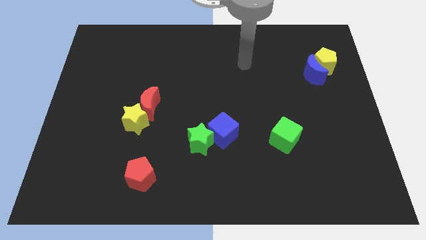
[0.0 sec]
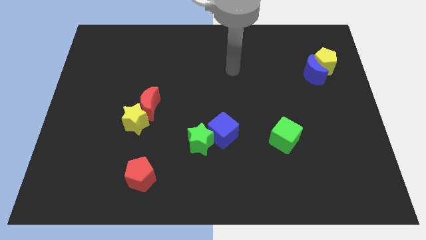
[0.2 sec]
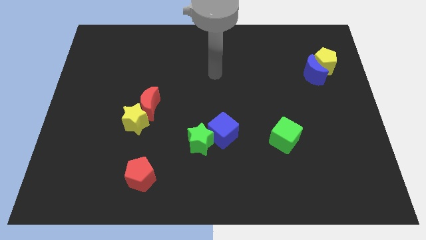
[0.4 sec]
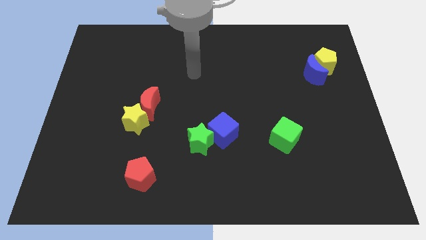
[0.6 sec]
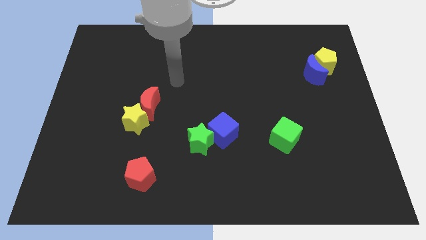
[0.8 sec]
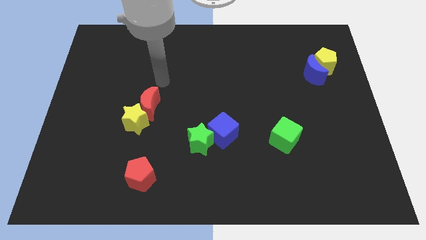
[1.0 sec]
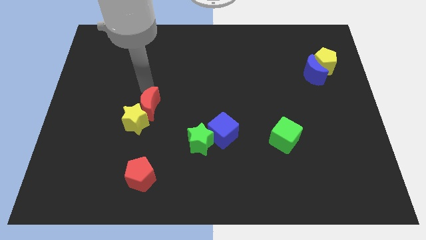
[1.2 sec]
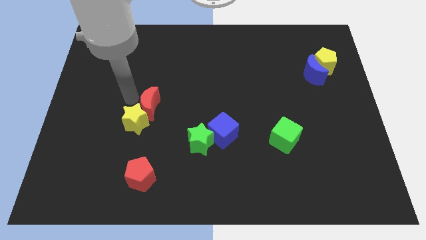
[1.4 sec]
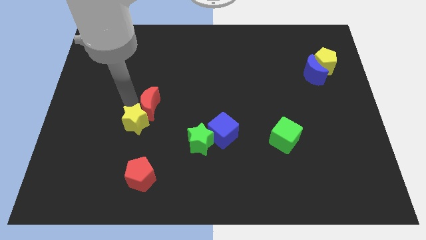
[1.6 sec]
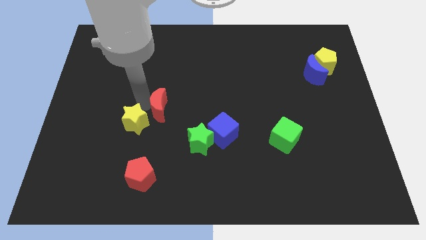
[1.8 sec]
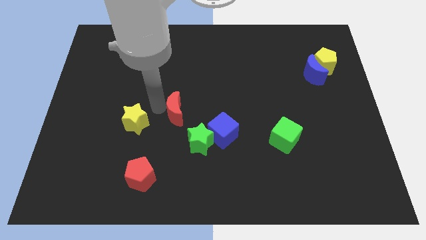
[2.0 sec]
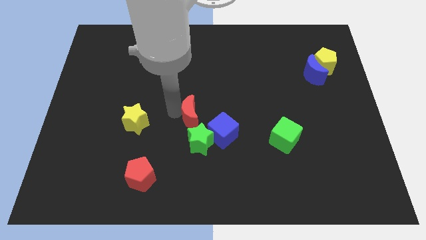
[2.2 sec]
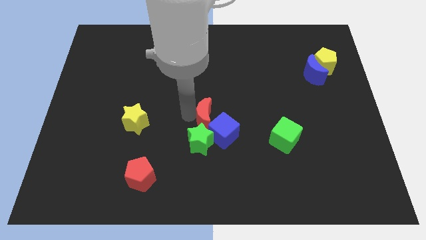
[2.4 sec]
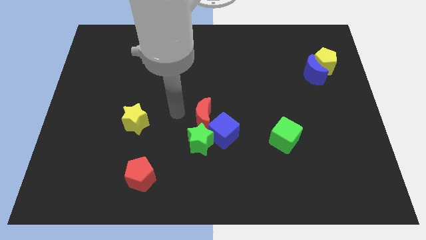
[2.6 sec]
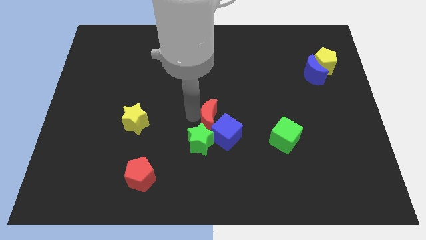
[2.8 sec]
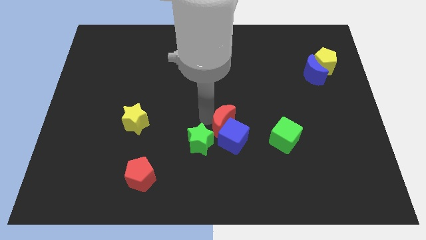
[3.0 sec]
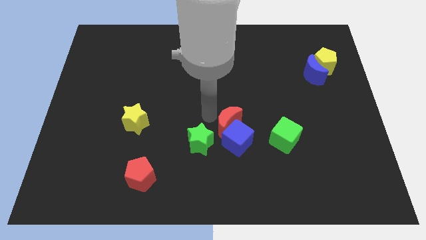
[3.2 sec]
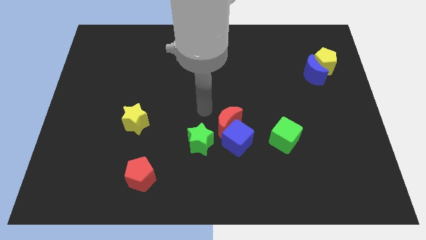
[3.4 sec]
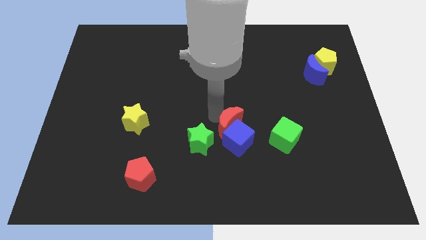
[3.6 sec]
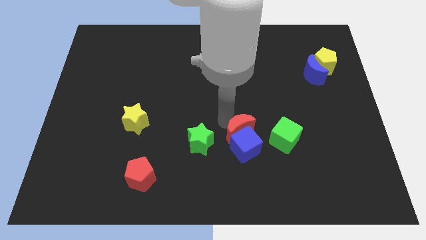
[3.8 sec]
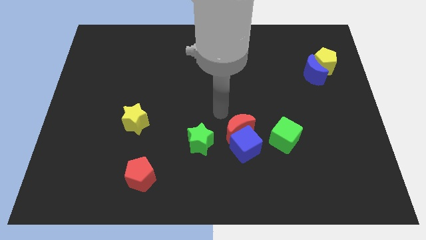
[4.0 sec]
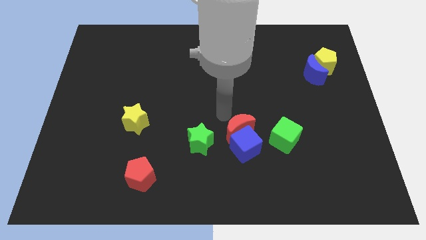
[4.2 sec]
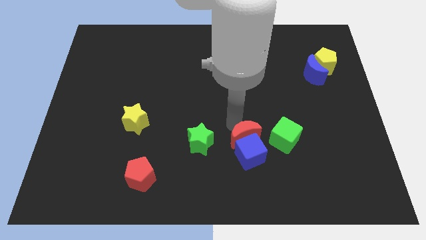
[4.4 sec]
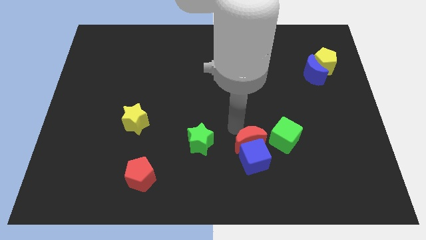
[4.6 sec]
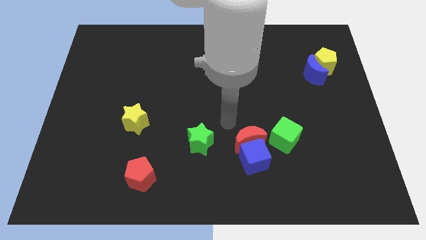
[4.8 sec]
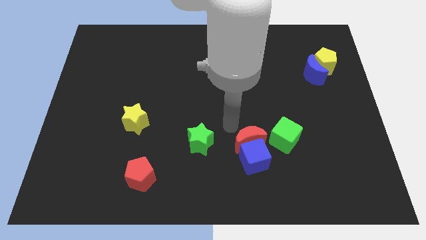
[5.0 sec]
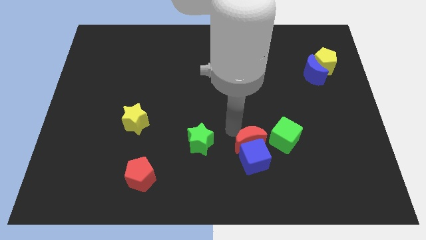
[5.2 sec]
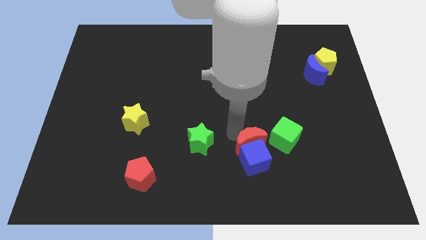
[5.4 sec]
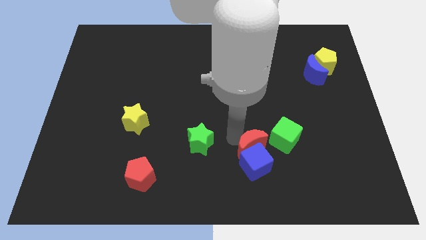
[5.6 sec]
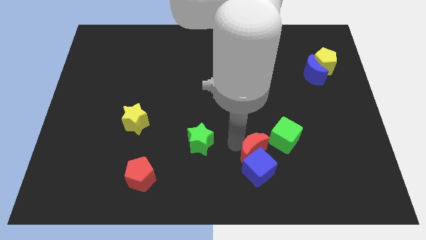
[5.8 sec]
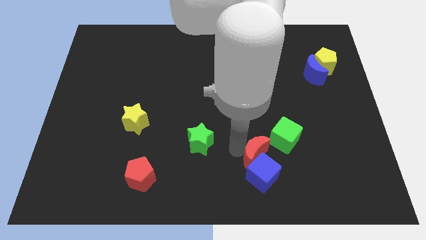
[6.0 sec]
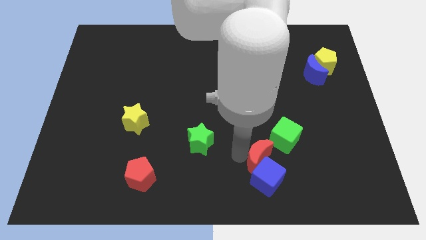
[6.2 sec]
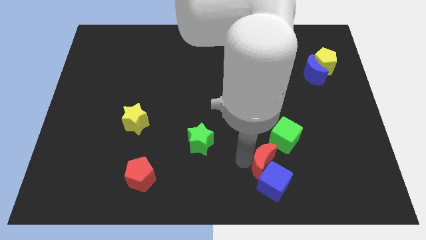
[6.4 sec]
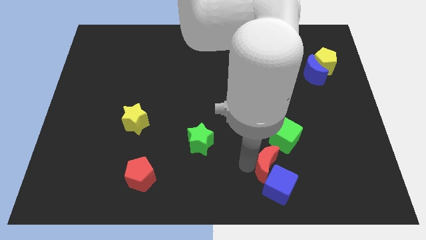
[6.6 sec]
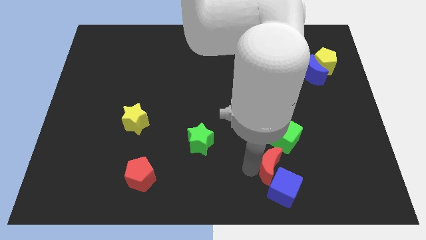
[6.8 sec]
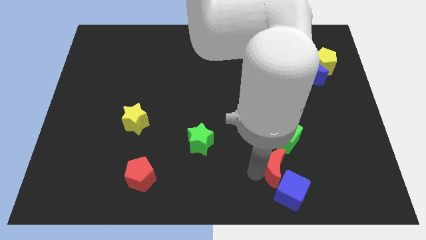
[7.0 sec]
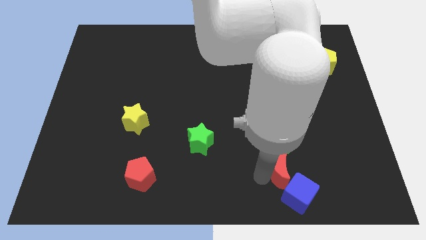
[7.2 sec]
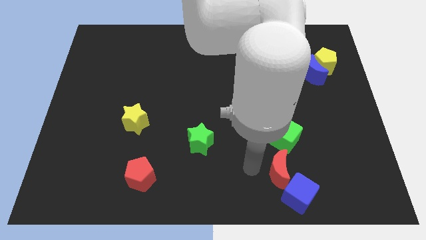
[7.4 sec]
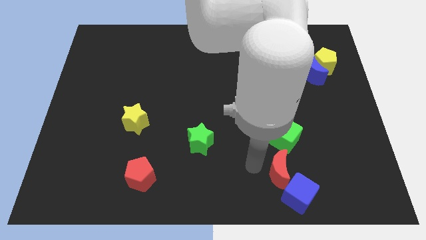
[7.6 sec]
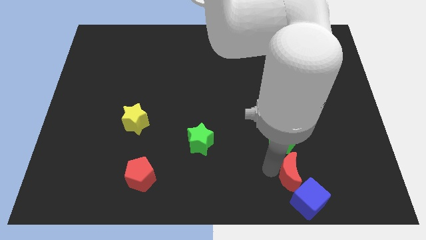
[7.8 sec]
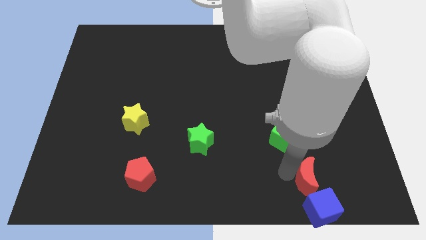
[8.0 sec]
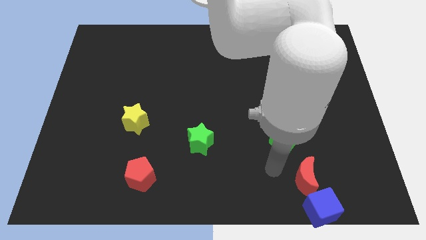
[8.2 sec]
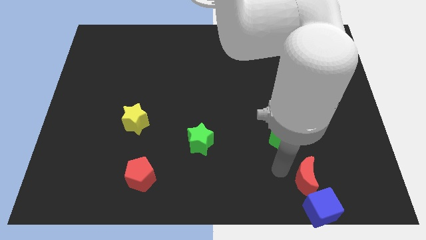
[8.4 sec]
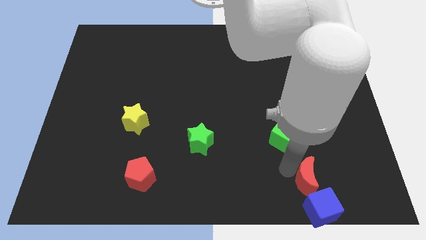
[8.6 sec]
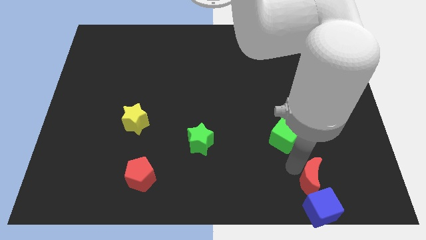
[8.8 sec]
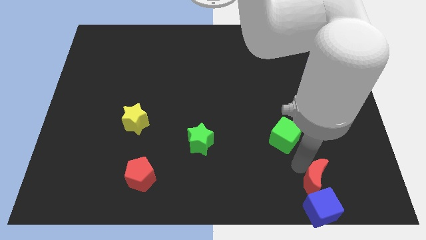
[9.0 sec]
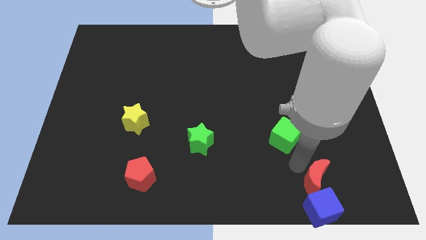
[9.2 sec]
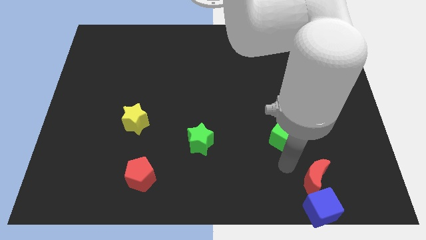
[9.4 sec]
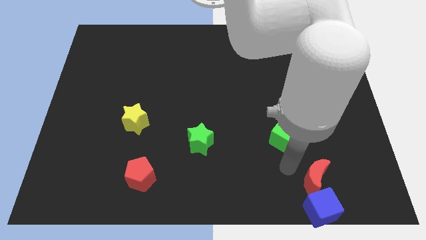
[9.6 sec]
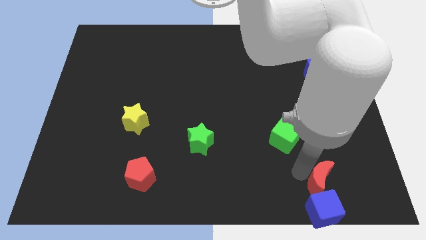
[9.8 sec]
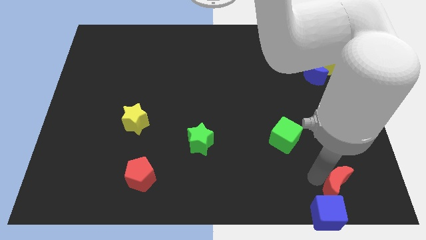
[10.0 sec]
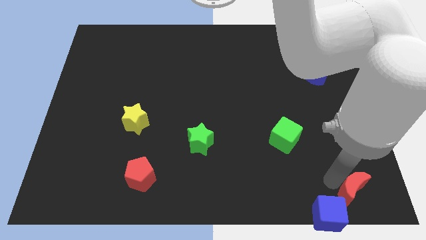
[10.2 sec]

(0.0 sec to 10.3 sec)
push the red moon to the bottom right of the board

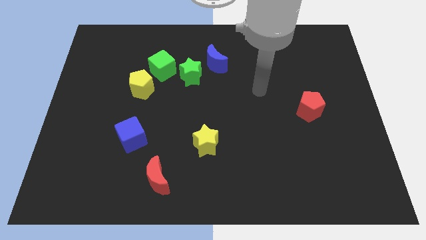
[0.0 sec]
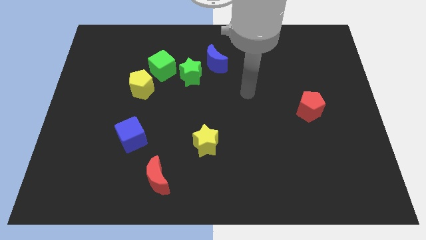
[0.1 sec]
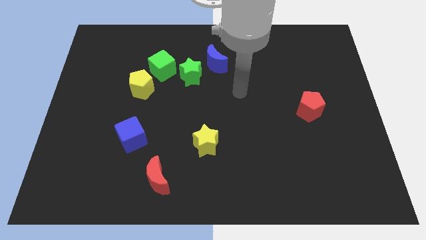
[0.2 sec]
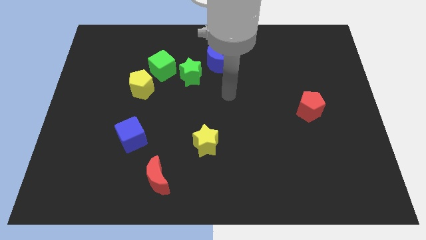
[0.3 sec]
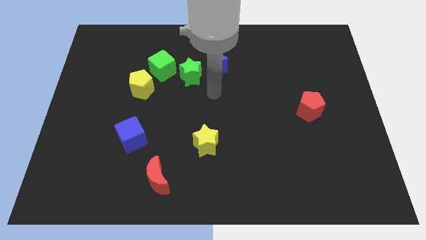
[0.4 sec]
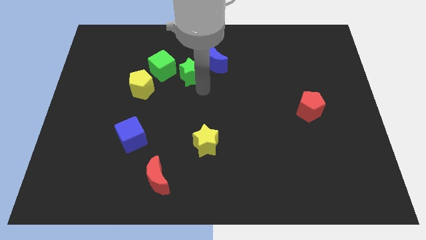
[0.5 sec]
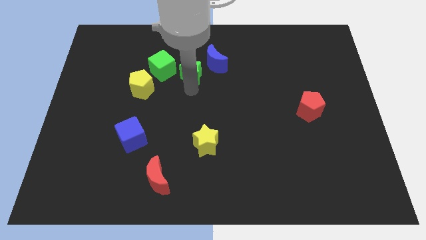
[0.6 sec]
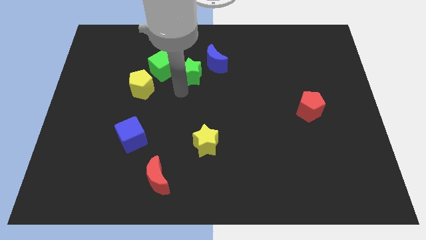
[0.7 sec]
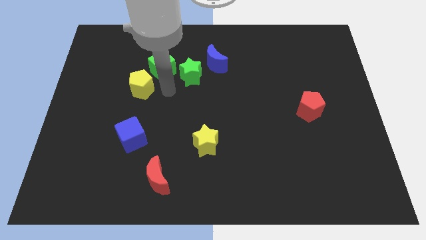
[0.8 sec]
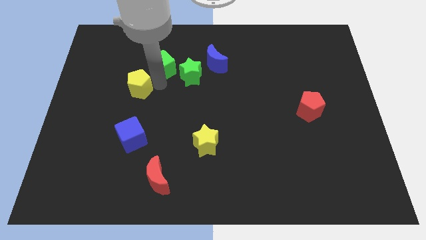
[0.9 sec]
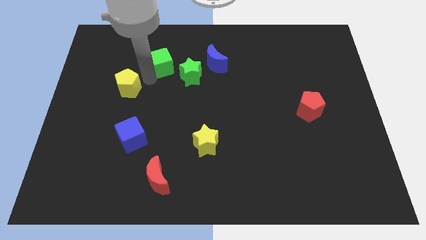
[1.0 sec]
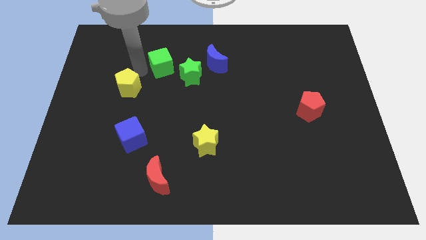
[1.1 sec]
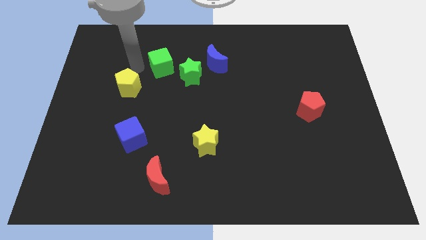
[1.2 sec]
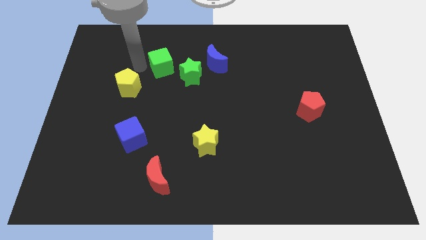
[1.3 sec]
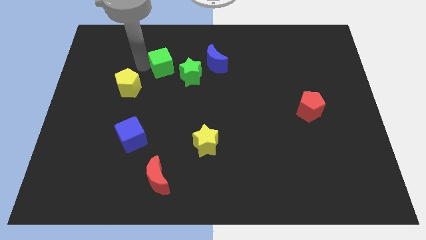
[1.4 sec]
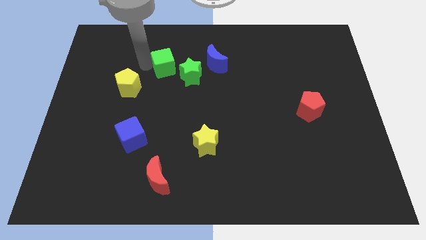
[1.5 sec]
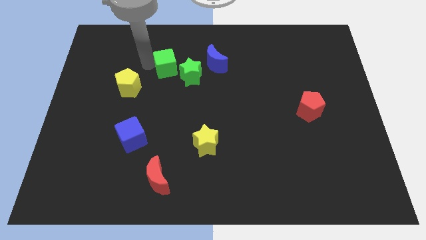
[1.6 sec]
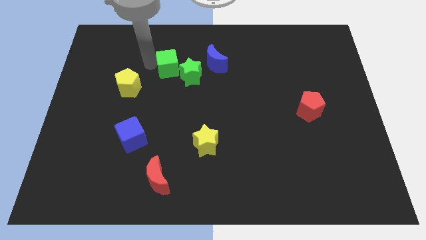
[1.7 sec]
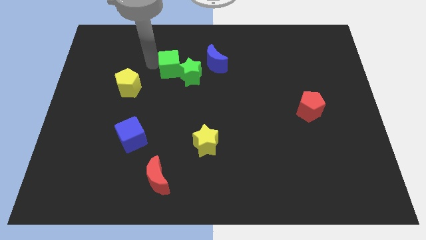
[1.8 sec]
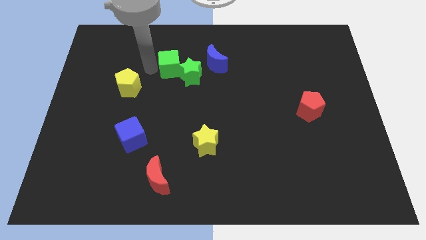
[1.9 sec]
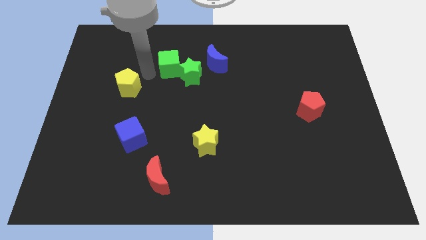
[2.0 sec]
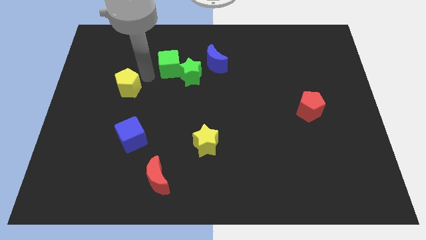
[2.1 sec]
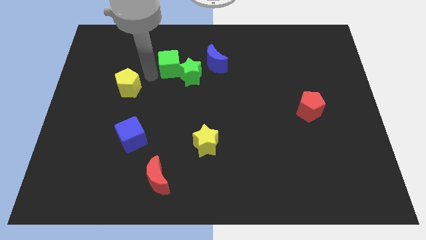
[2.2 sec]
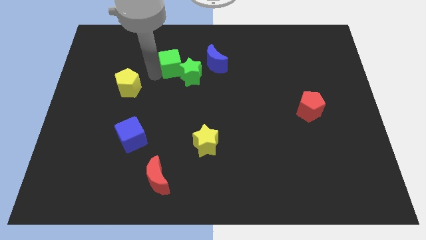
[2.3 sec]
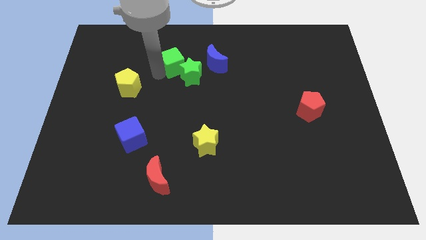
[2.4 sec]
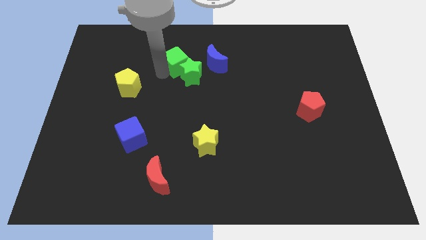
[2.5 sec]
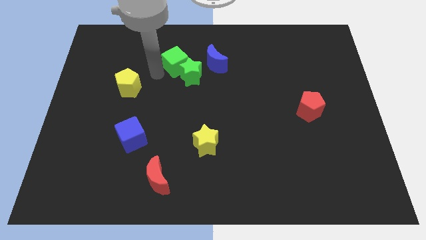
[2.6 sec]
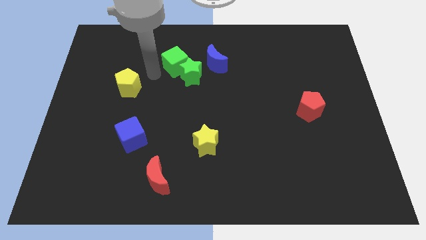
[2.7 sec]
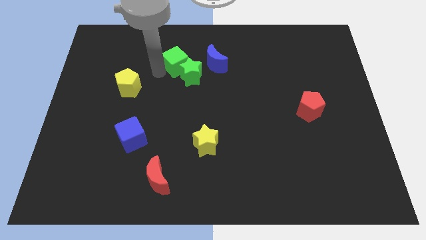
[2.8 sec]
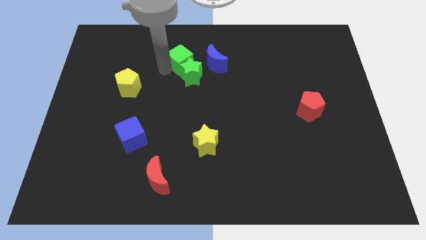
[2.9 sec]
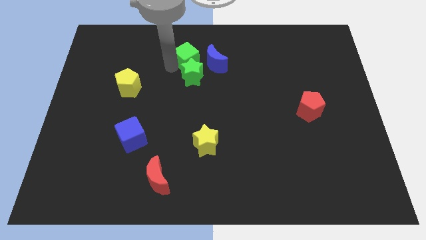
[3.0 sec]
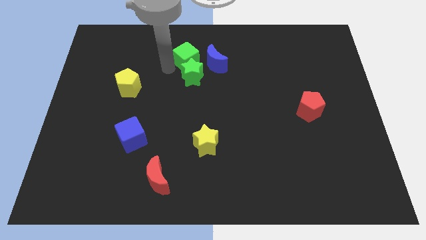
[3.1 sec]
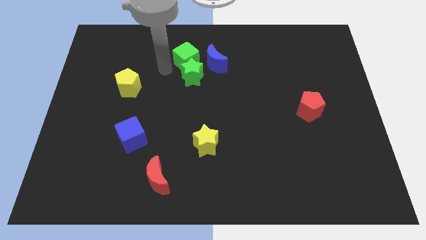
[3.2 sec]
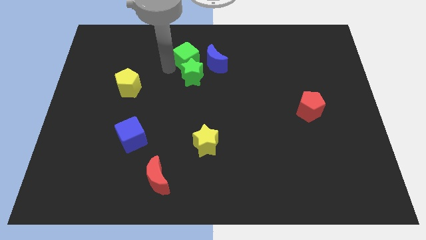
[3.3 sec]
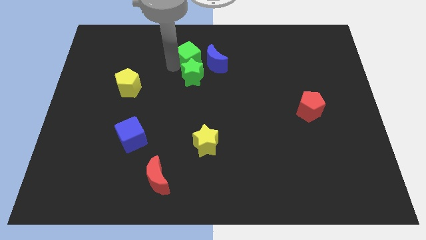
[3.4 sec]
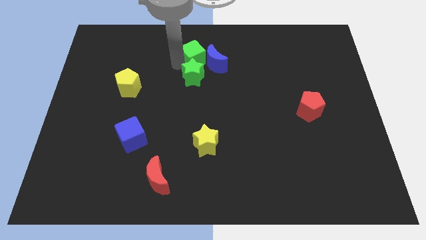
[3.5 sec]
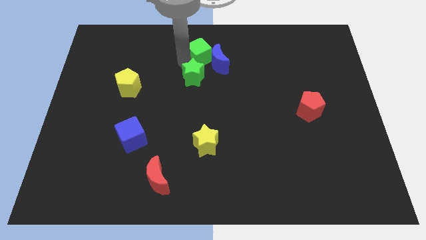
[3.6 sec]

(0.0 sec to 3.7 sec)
put the green cube to the towards your base
